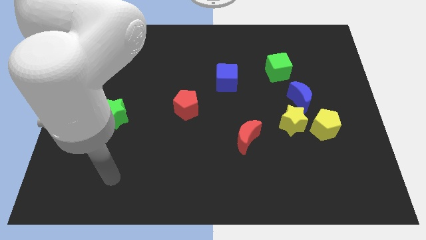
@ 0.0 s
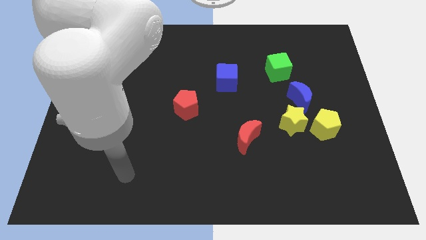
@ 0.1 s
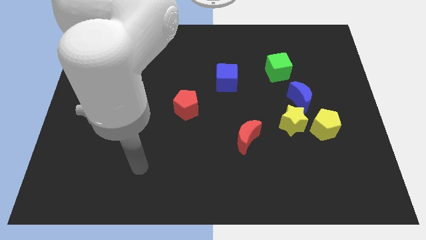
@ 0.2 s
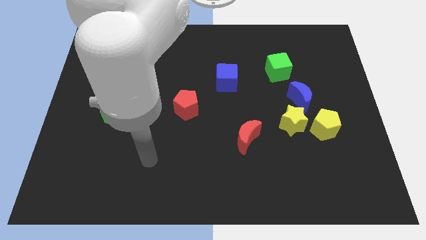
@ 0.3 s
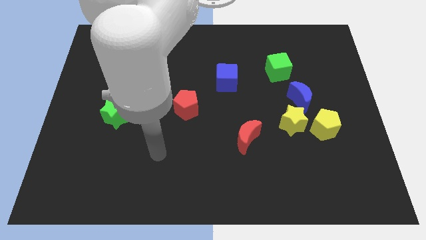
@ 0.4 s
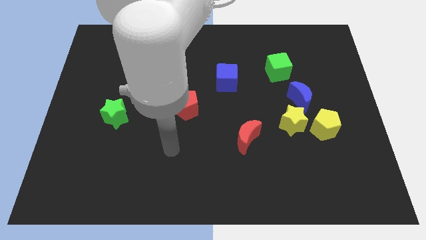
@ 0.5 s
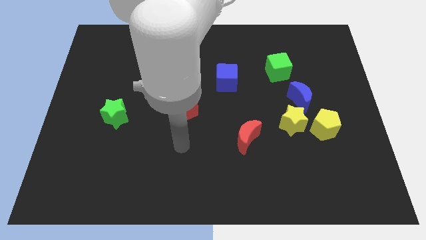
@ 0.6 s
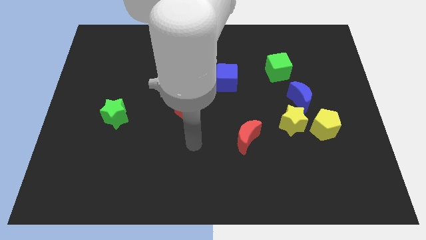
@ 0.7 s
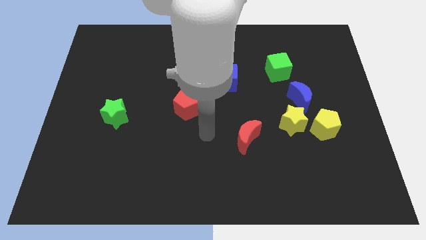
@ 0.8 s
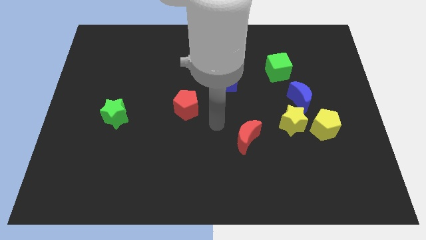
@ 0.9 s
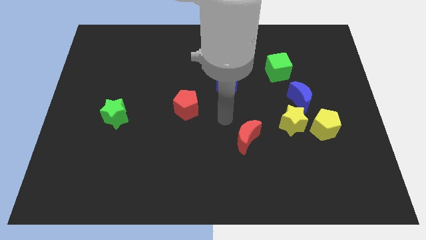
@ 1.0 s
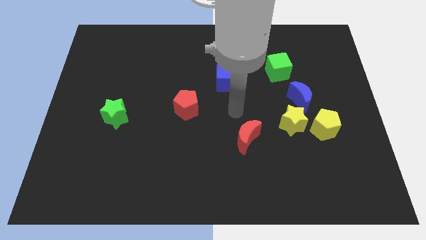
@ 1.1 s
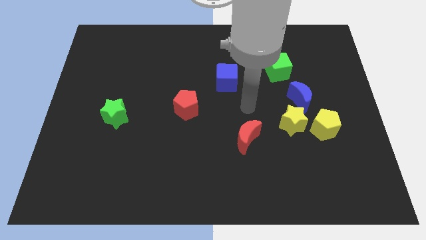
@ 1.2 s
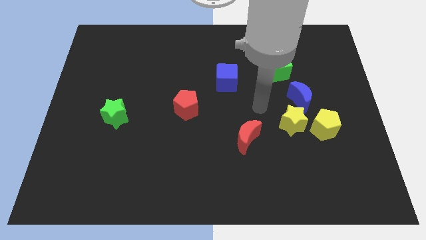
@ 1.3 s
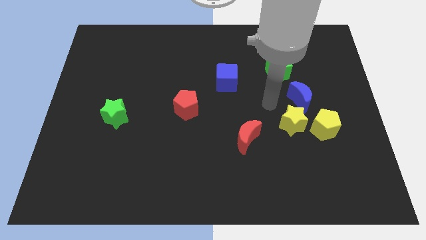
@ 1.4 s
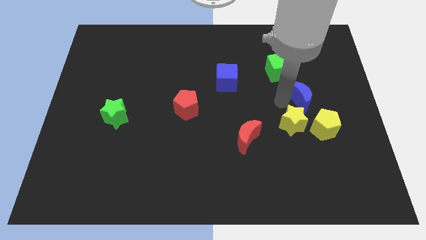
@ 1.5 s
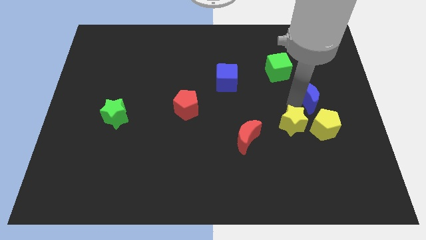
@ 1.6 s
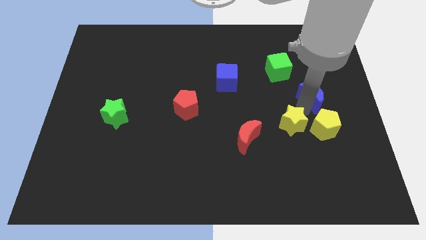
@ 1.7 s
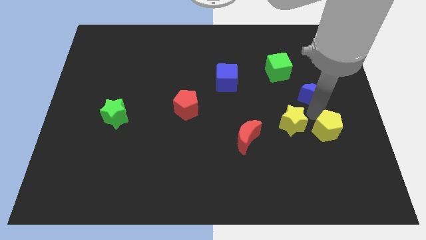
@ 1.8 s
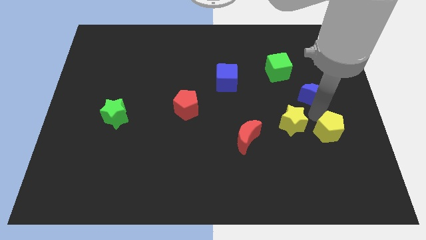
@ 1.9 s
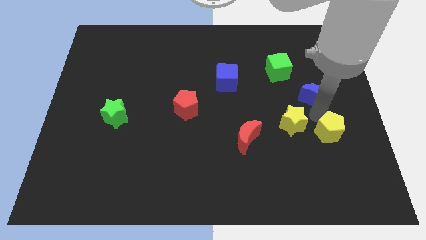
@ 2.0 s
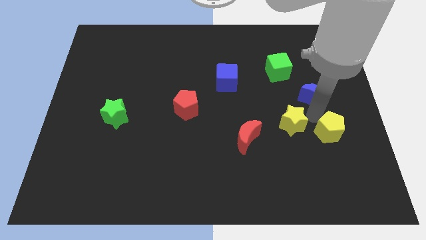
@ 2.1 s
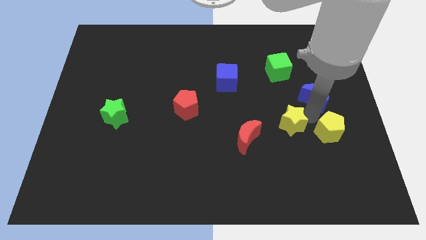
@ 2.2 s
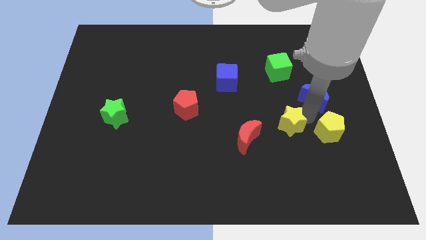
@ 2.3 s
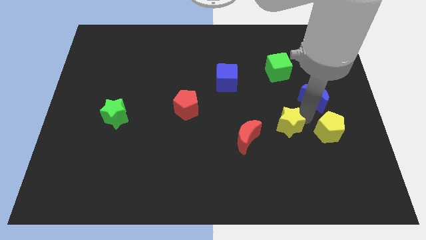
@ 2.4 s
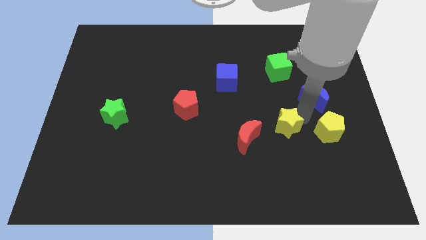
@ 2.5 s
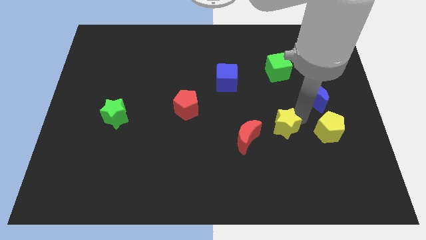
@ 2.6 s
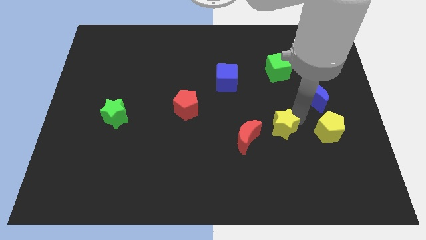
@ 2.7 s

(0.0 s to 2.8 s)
pull the yellow star apart from the yellow pentagon and blue moon

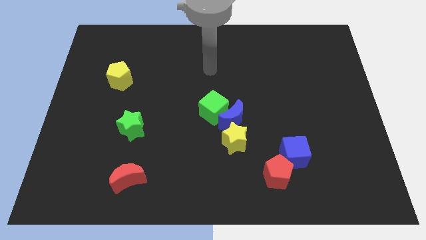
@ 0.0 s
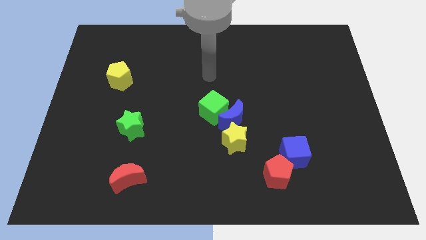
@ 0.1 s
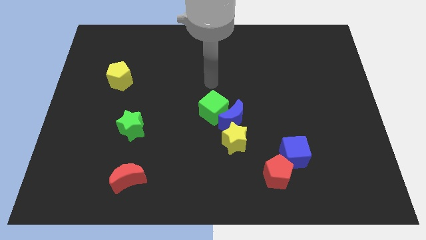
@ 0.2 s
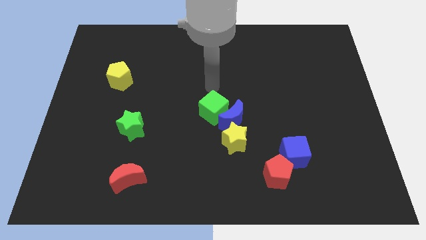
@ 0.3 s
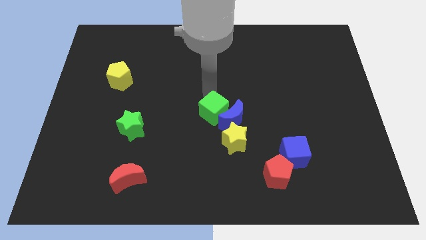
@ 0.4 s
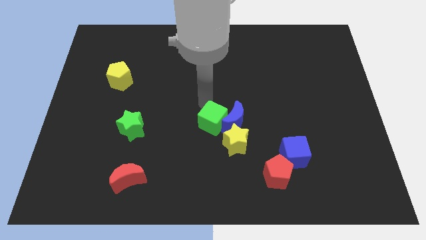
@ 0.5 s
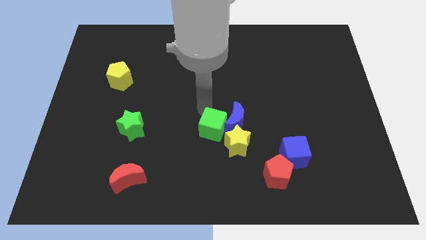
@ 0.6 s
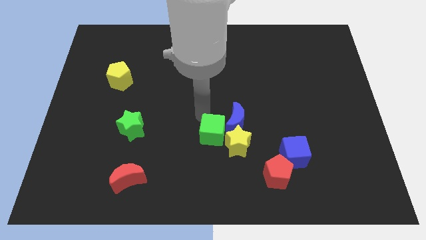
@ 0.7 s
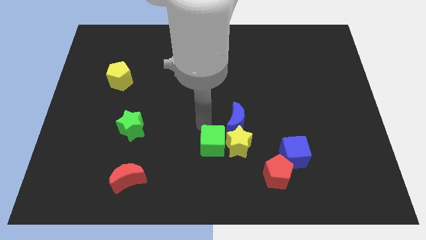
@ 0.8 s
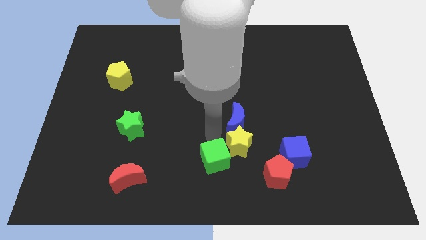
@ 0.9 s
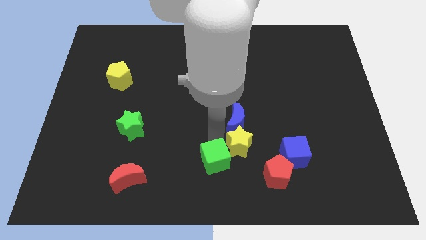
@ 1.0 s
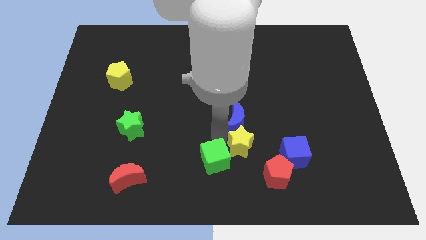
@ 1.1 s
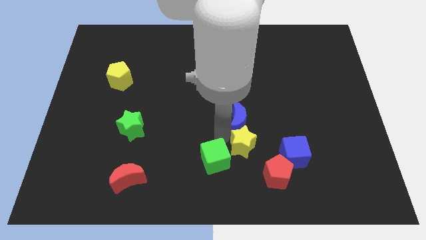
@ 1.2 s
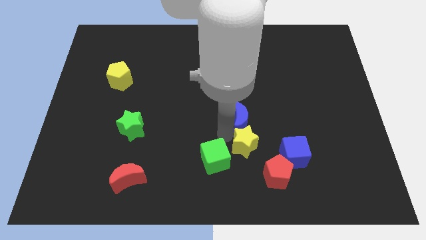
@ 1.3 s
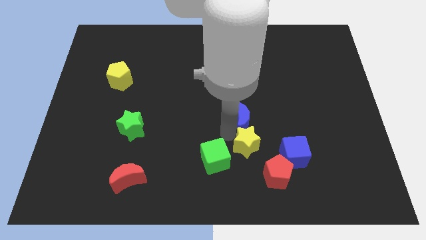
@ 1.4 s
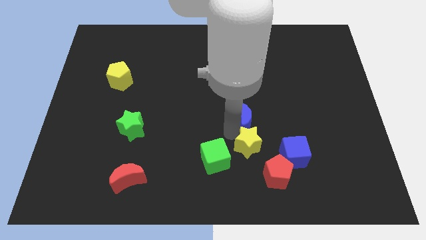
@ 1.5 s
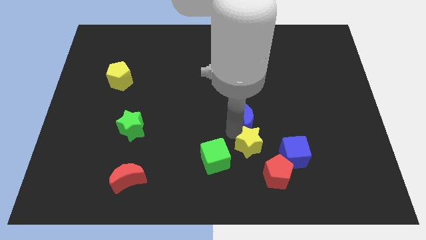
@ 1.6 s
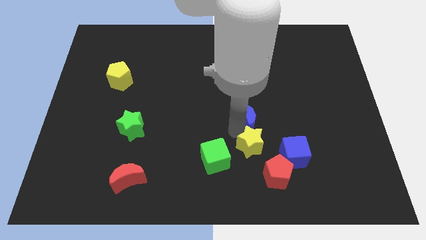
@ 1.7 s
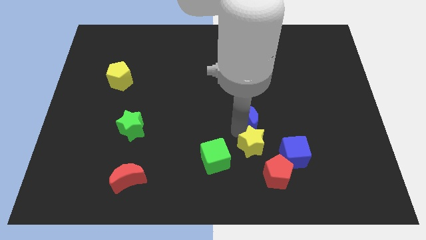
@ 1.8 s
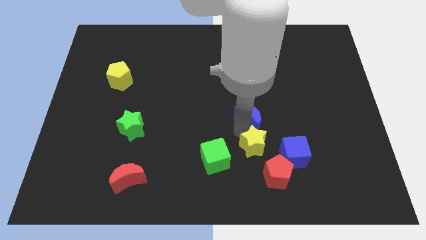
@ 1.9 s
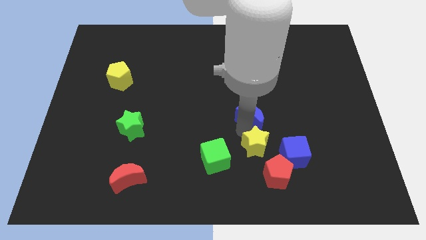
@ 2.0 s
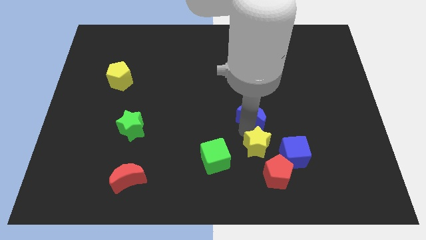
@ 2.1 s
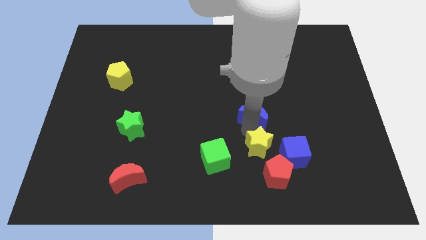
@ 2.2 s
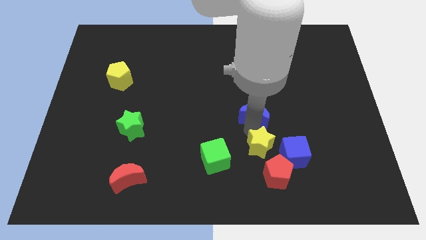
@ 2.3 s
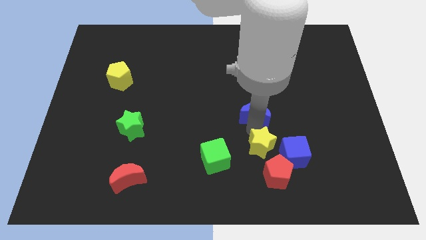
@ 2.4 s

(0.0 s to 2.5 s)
pull the blue moon apart from the green cube and yellow star

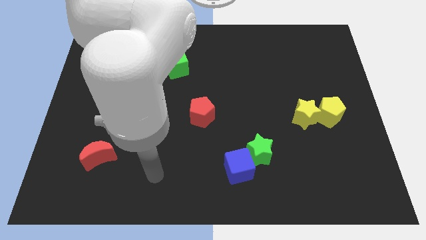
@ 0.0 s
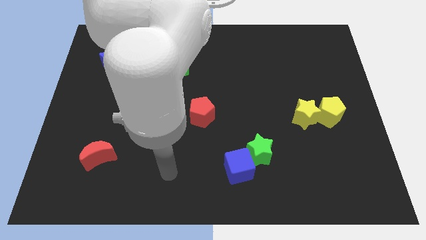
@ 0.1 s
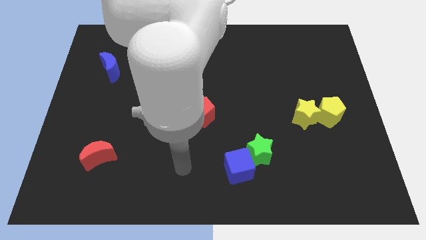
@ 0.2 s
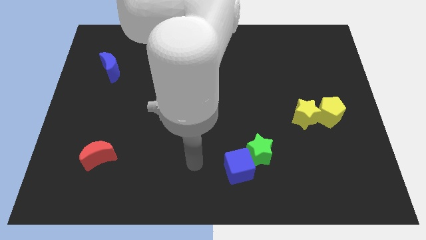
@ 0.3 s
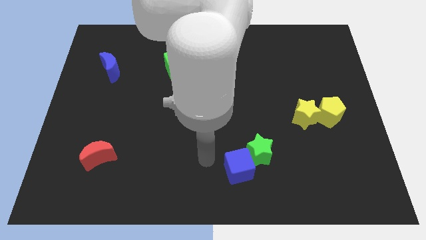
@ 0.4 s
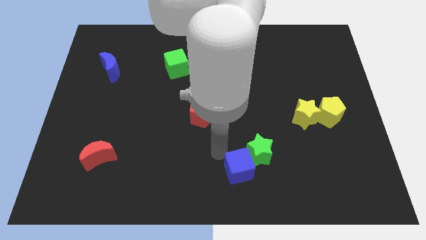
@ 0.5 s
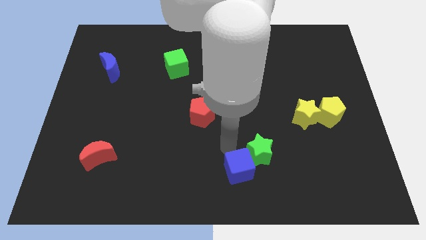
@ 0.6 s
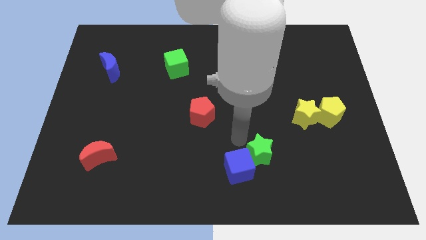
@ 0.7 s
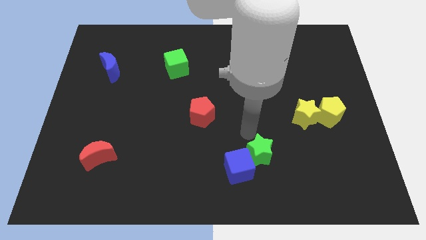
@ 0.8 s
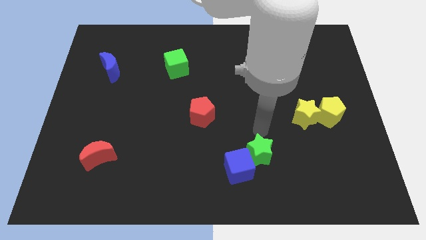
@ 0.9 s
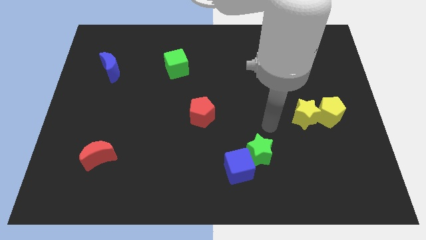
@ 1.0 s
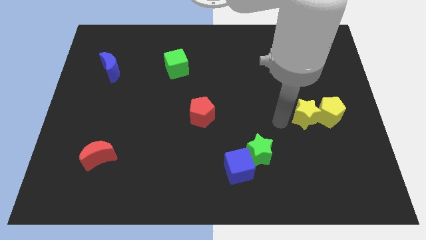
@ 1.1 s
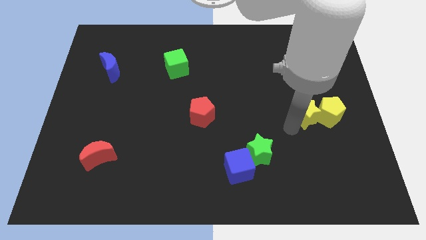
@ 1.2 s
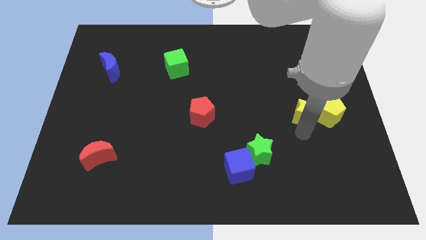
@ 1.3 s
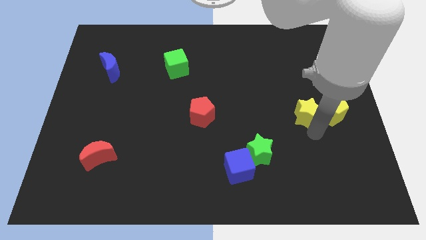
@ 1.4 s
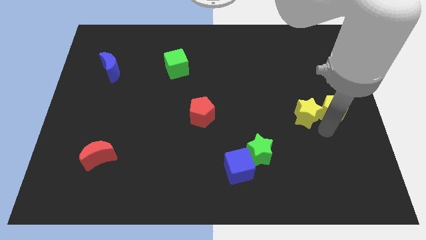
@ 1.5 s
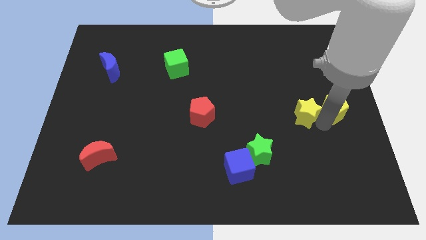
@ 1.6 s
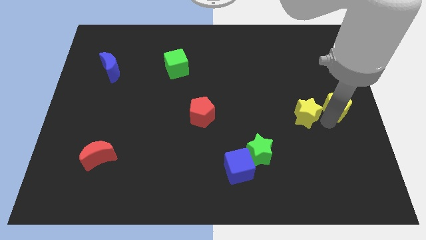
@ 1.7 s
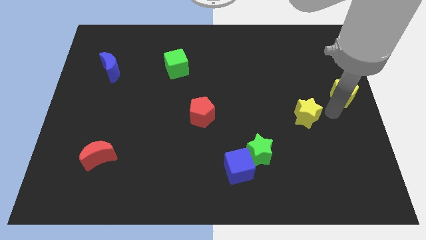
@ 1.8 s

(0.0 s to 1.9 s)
move the yellow star away from the yellow pentagon

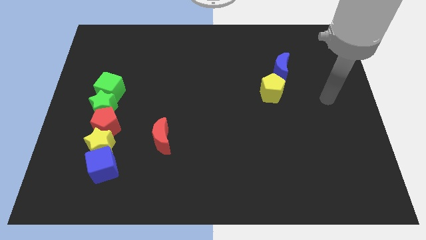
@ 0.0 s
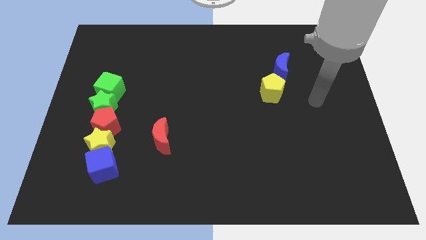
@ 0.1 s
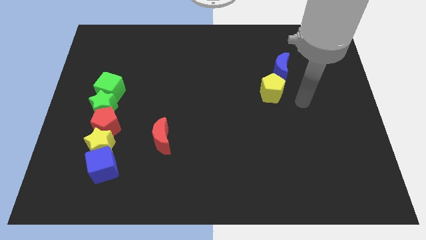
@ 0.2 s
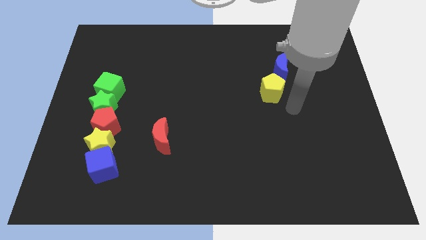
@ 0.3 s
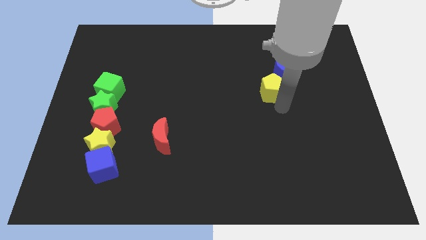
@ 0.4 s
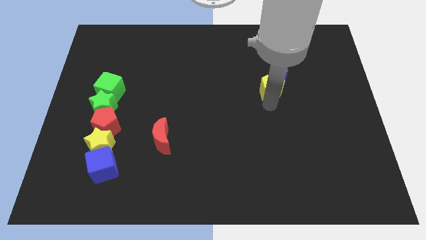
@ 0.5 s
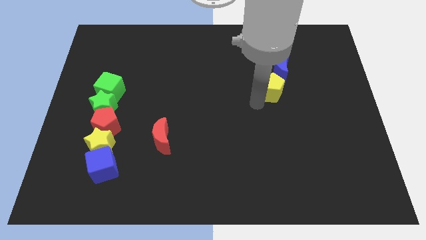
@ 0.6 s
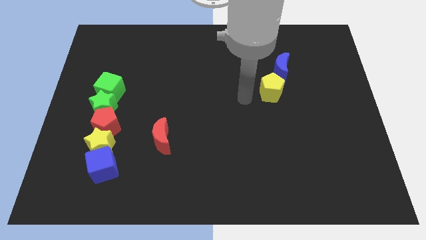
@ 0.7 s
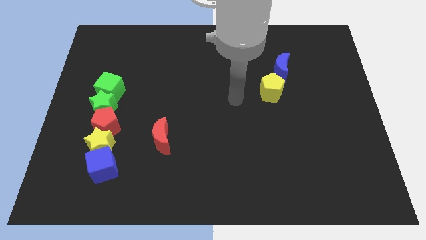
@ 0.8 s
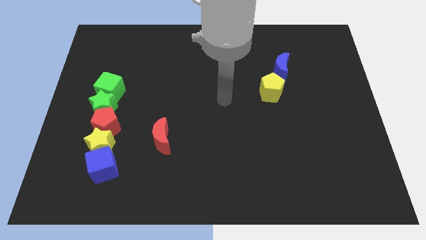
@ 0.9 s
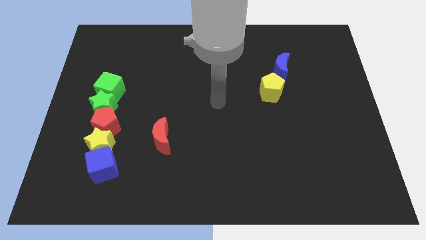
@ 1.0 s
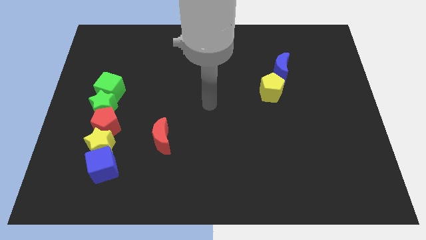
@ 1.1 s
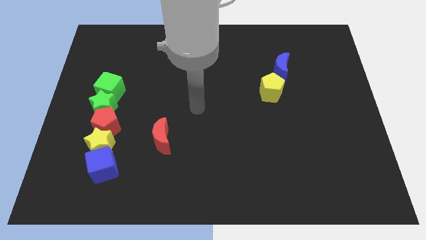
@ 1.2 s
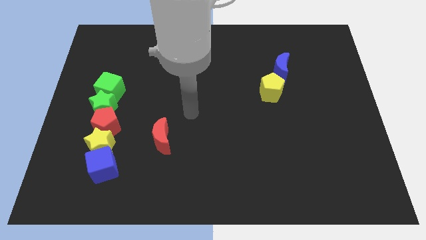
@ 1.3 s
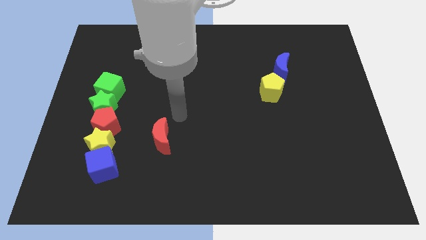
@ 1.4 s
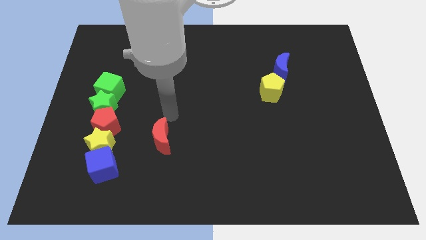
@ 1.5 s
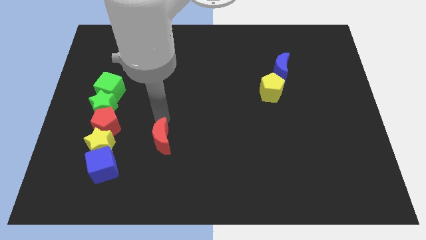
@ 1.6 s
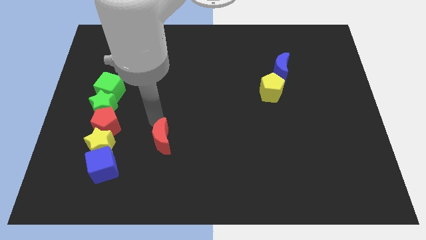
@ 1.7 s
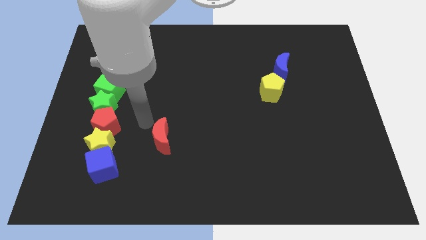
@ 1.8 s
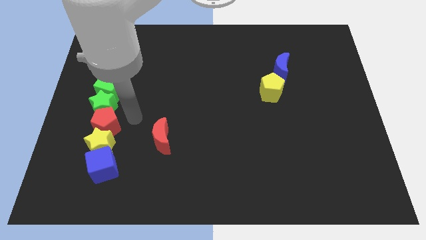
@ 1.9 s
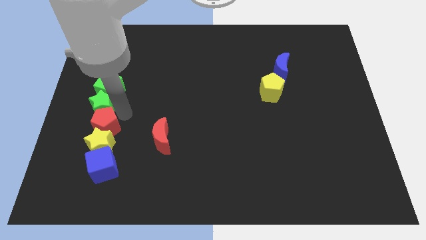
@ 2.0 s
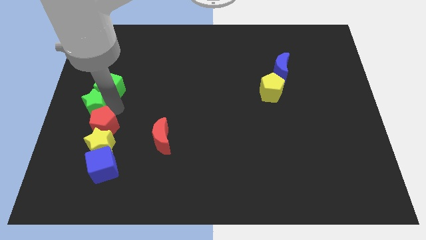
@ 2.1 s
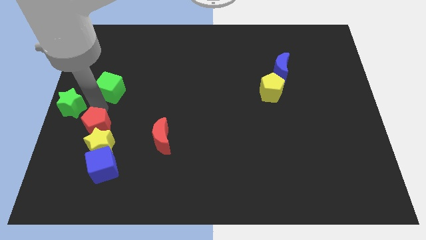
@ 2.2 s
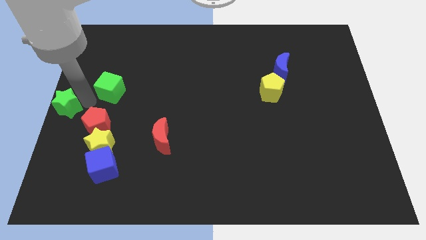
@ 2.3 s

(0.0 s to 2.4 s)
pull the green cube apart from the green star
